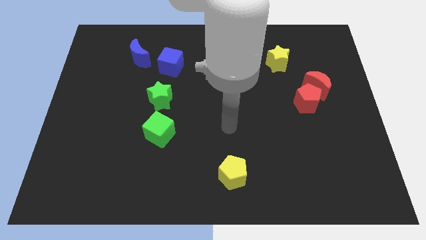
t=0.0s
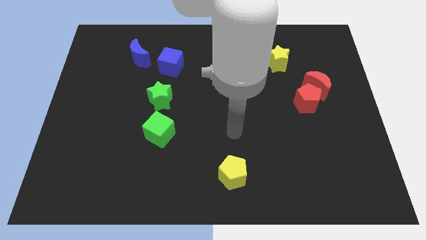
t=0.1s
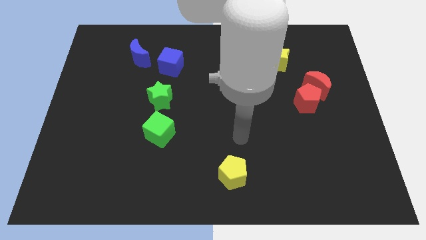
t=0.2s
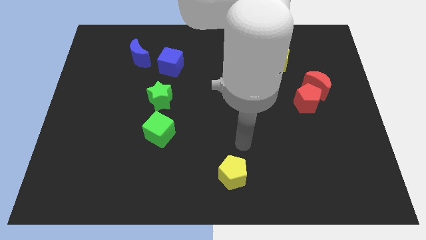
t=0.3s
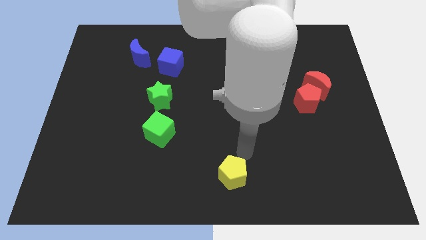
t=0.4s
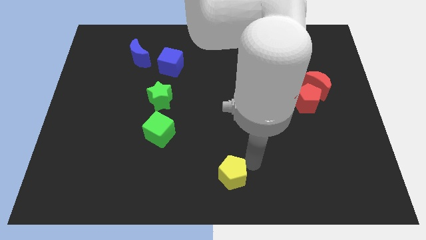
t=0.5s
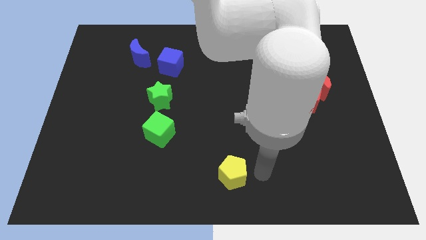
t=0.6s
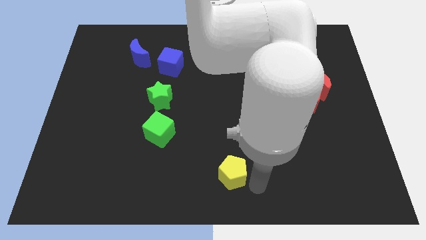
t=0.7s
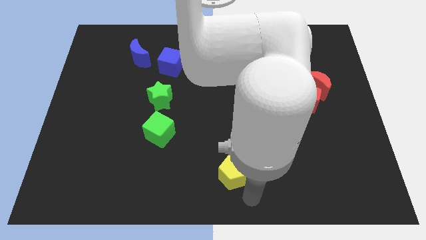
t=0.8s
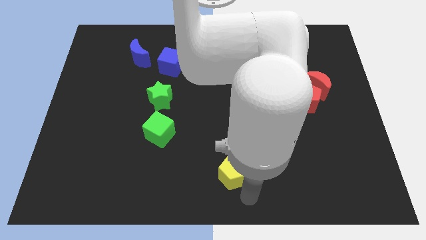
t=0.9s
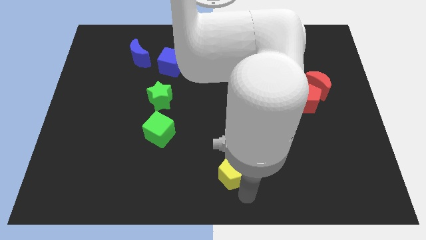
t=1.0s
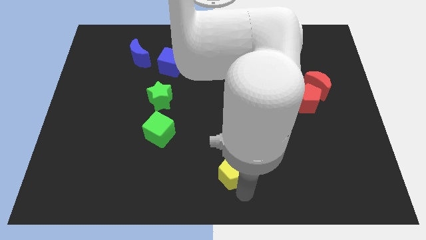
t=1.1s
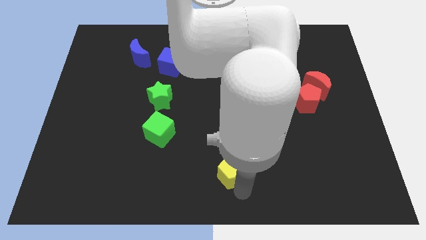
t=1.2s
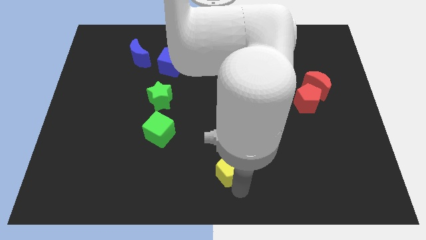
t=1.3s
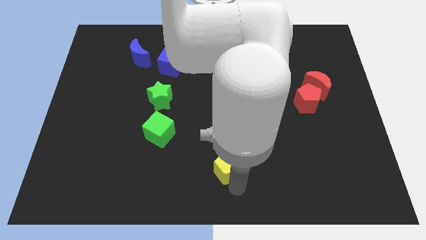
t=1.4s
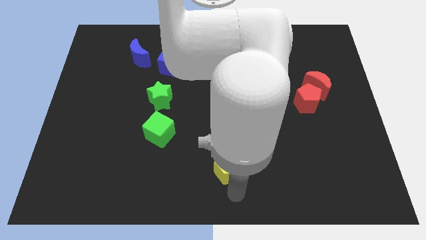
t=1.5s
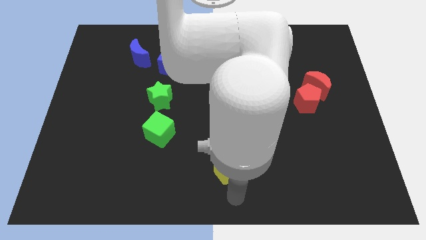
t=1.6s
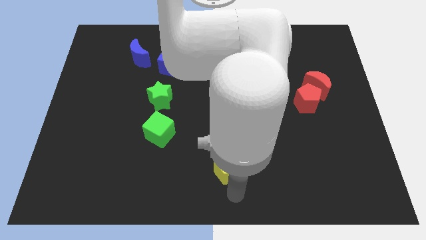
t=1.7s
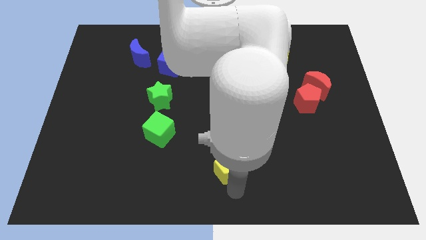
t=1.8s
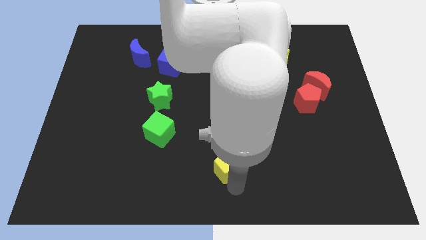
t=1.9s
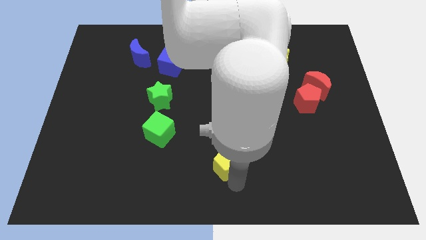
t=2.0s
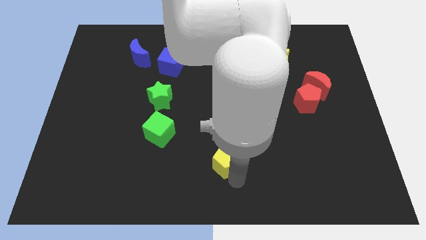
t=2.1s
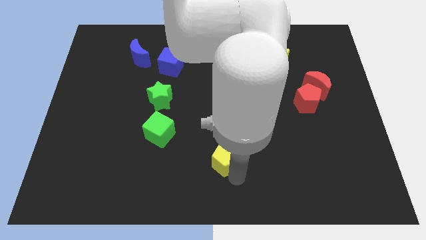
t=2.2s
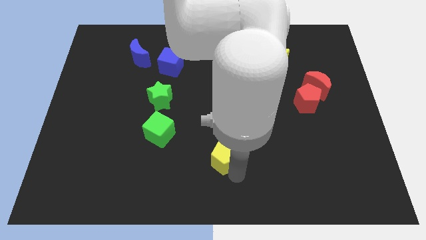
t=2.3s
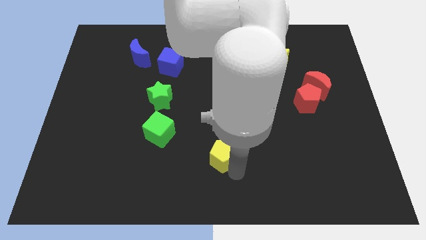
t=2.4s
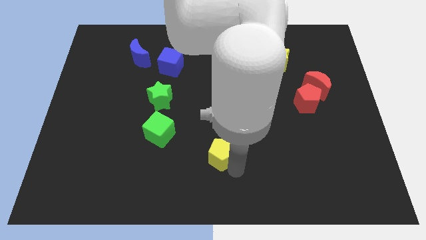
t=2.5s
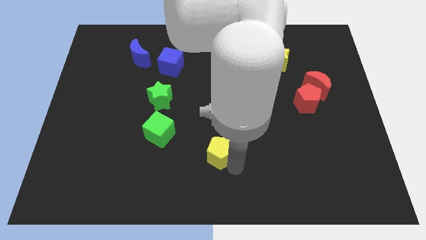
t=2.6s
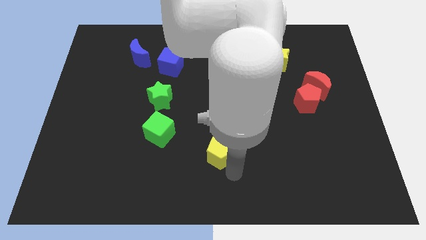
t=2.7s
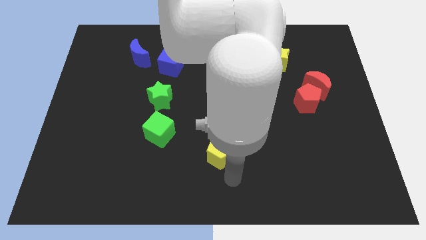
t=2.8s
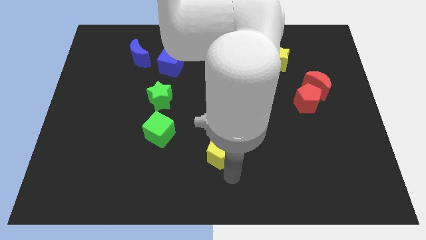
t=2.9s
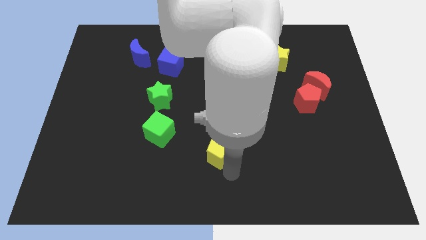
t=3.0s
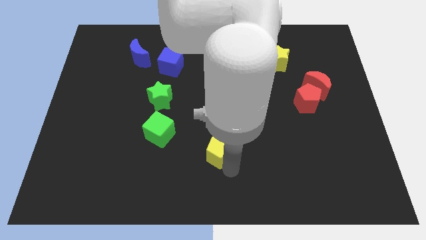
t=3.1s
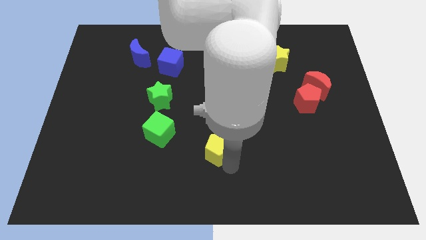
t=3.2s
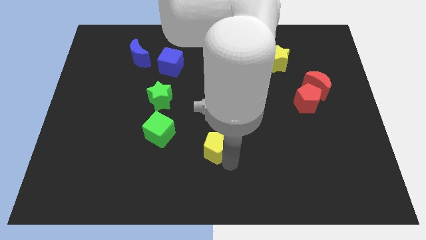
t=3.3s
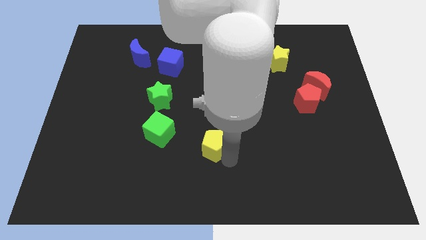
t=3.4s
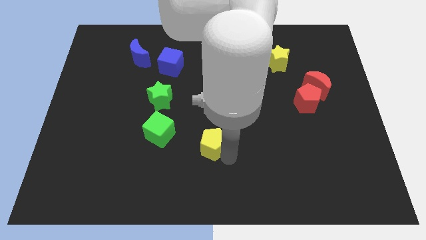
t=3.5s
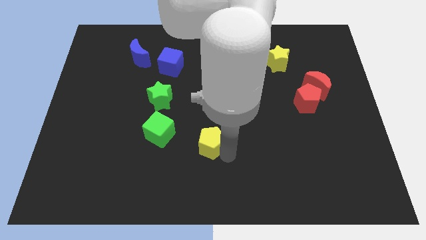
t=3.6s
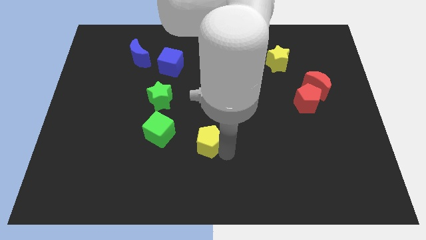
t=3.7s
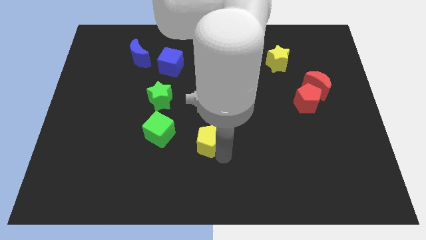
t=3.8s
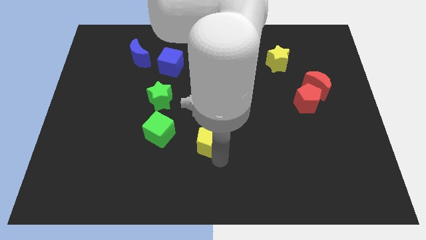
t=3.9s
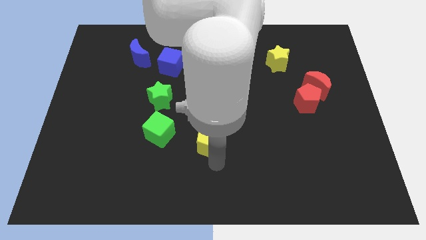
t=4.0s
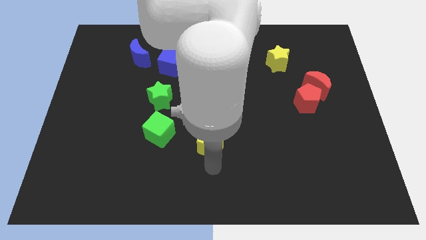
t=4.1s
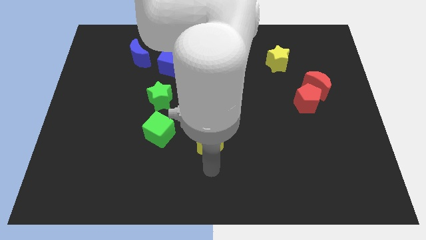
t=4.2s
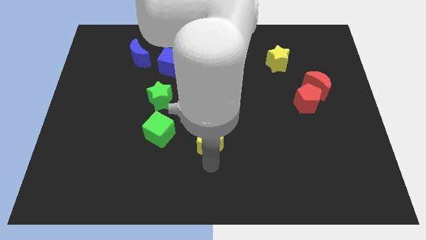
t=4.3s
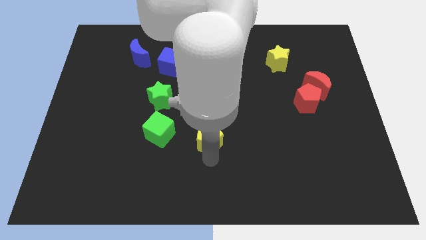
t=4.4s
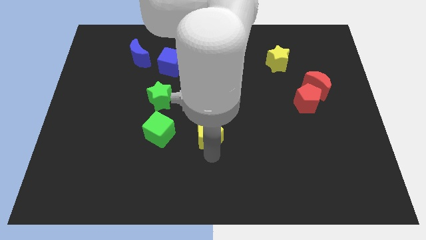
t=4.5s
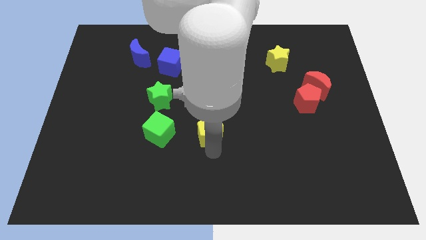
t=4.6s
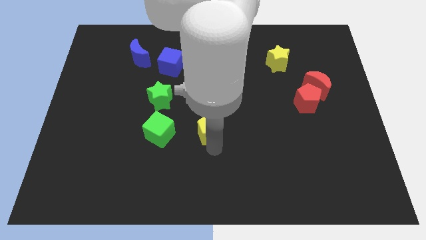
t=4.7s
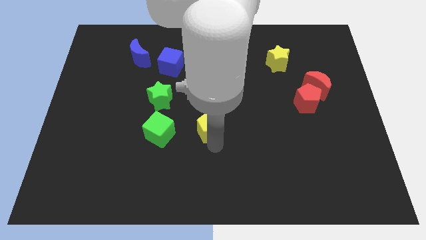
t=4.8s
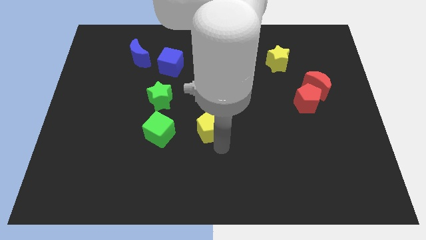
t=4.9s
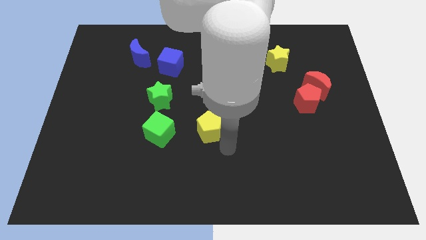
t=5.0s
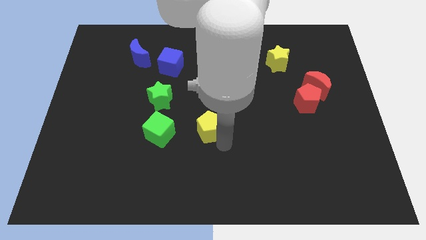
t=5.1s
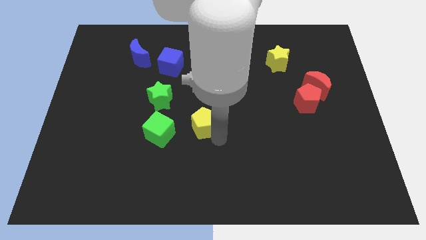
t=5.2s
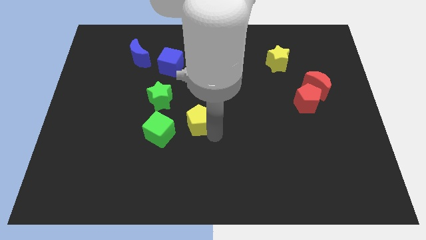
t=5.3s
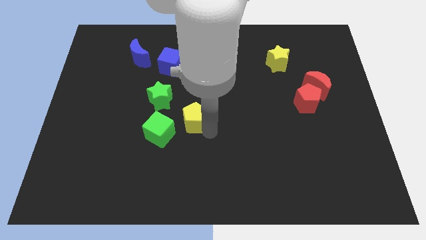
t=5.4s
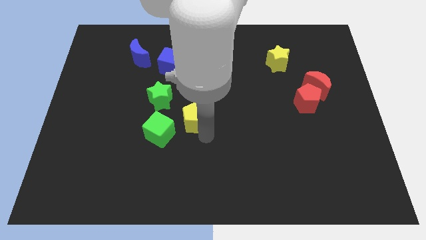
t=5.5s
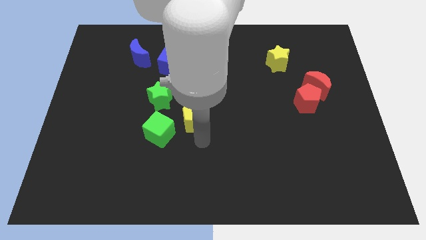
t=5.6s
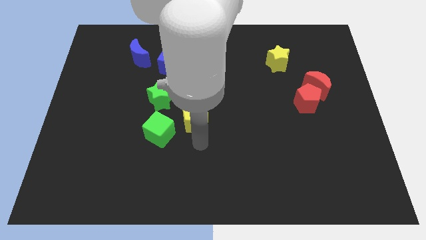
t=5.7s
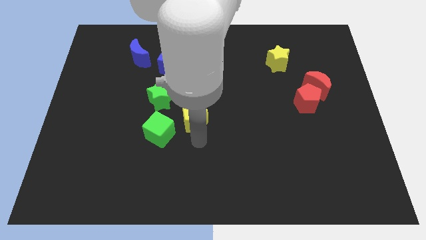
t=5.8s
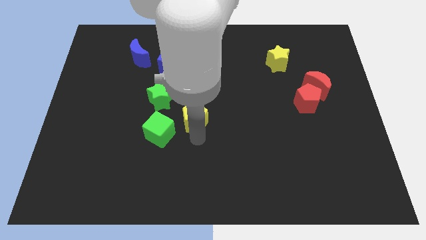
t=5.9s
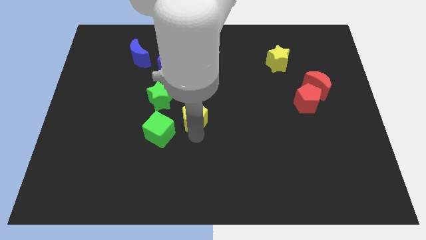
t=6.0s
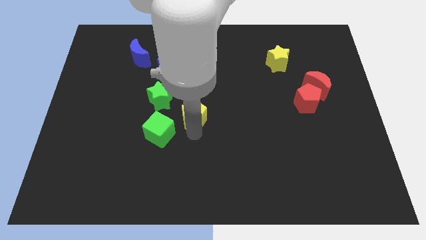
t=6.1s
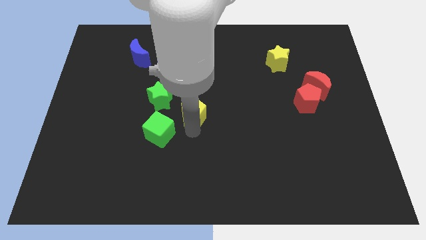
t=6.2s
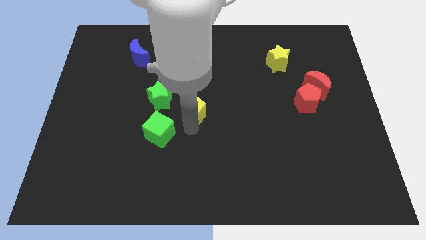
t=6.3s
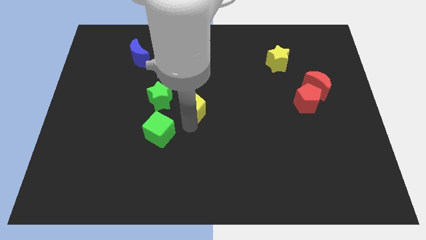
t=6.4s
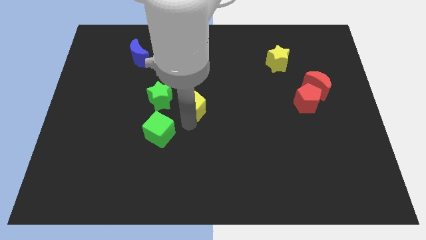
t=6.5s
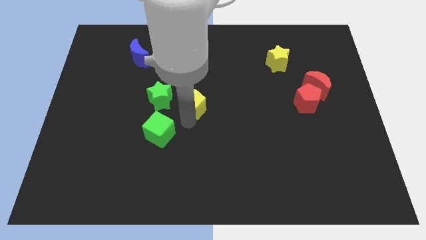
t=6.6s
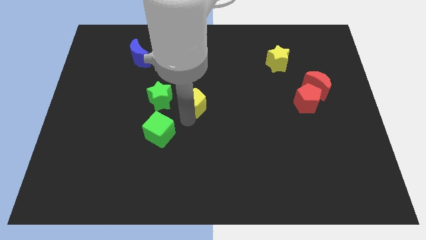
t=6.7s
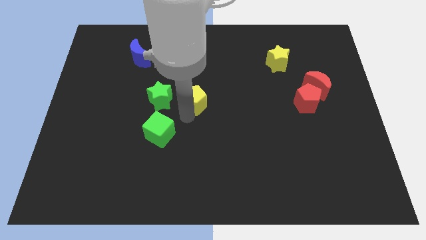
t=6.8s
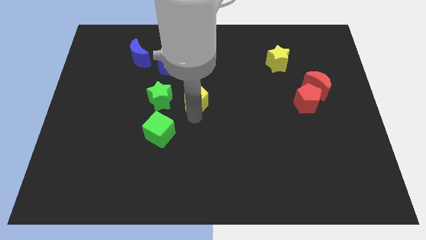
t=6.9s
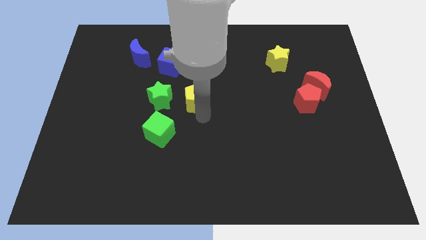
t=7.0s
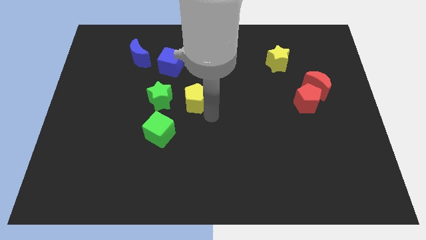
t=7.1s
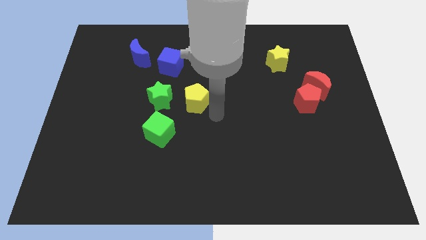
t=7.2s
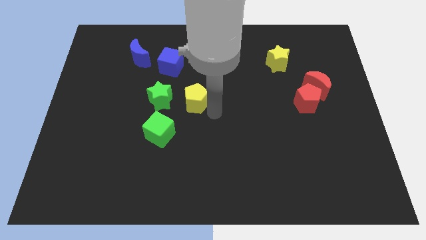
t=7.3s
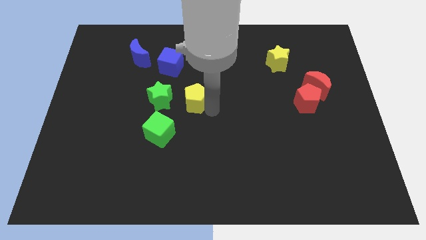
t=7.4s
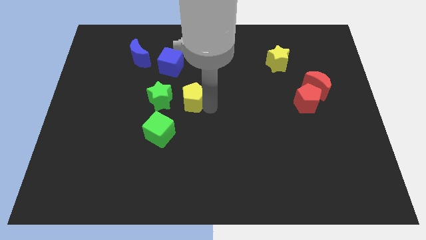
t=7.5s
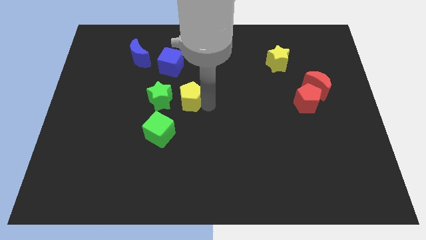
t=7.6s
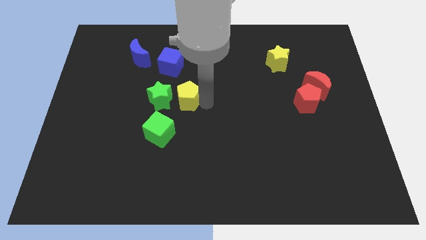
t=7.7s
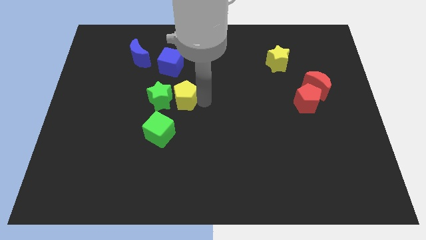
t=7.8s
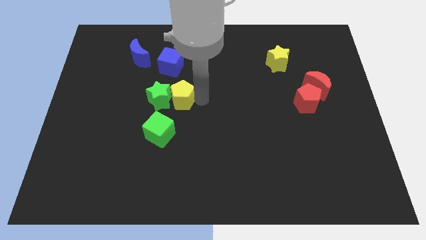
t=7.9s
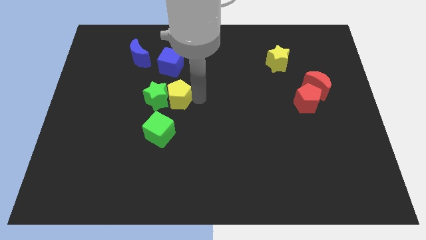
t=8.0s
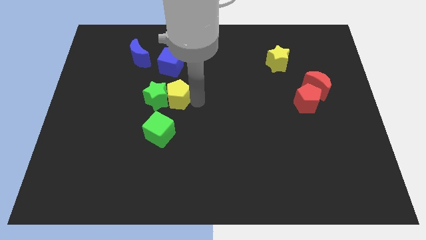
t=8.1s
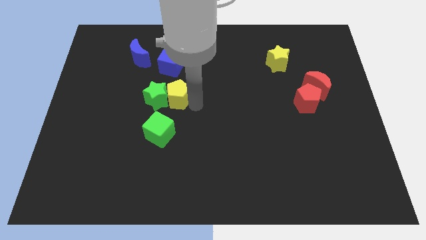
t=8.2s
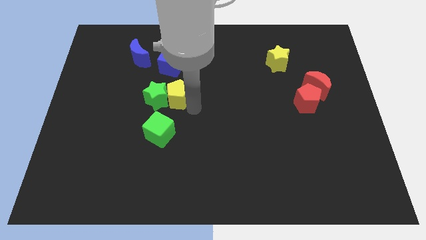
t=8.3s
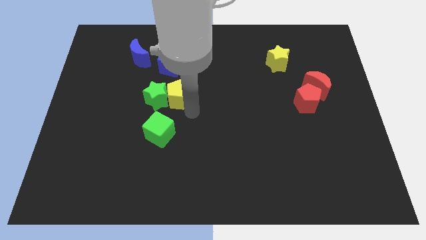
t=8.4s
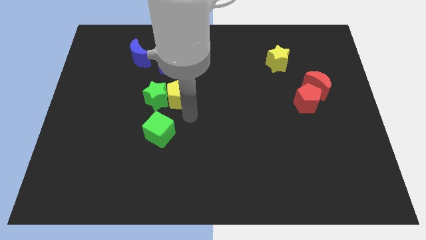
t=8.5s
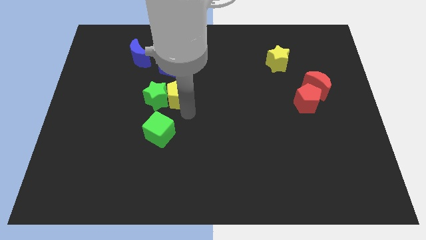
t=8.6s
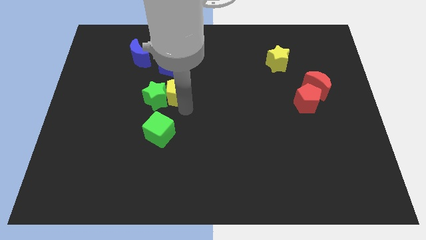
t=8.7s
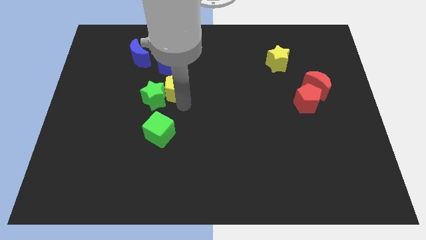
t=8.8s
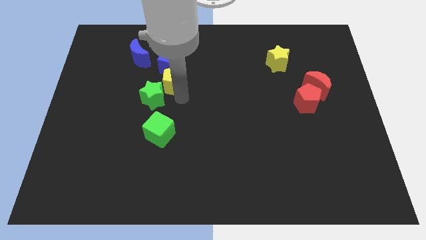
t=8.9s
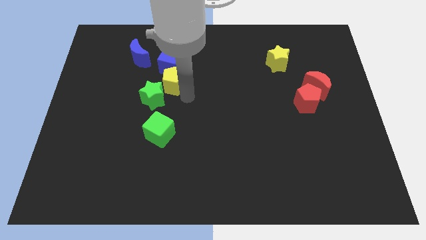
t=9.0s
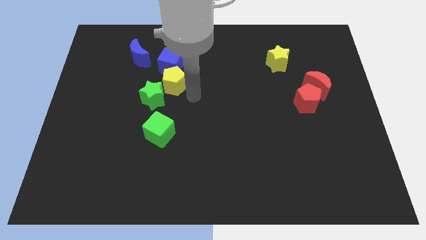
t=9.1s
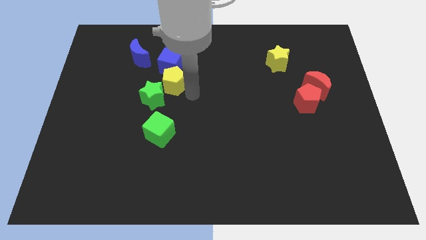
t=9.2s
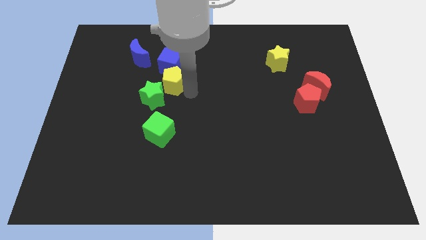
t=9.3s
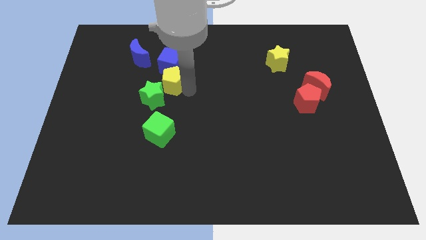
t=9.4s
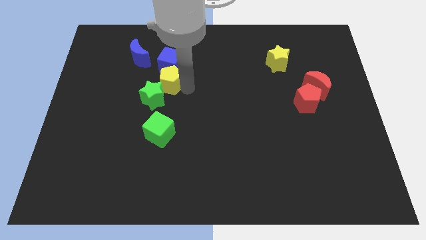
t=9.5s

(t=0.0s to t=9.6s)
move the yellow pentagon diagonally down and to the right of the blue moon
